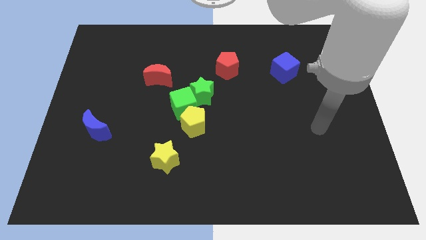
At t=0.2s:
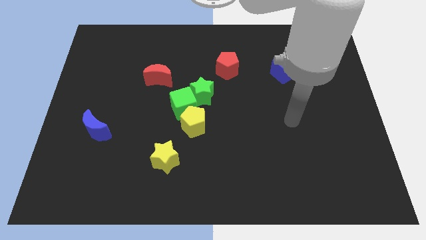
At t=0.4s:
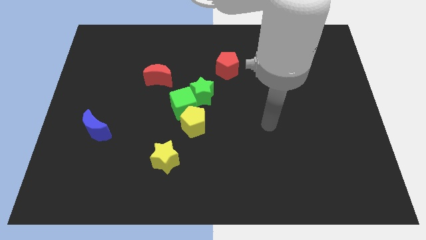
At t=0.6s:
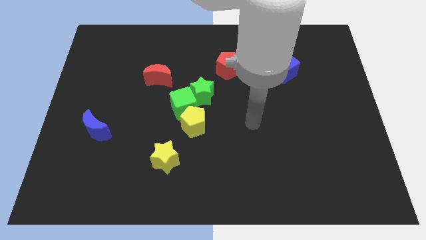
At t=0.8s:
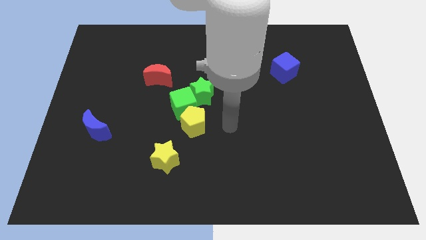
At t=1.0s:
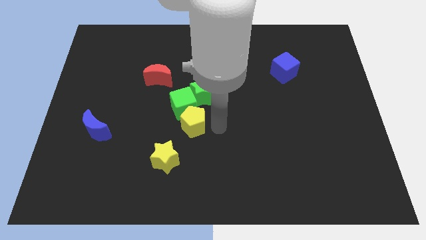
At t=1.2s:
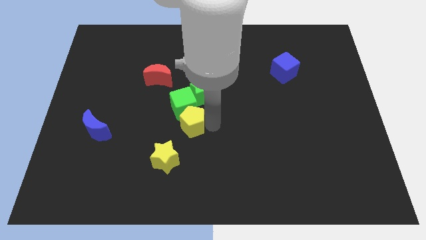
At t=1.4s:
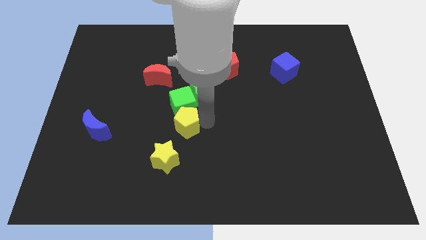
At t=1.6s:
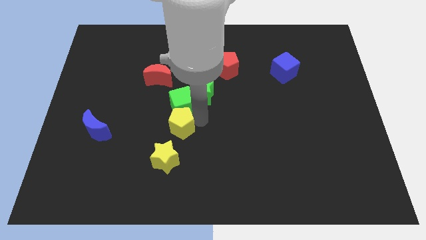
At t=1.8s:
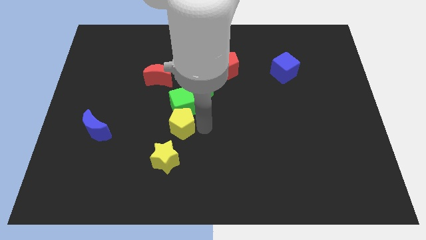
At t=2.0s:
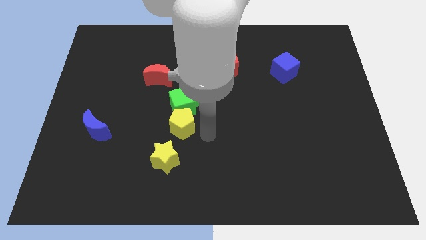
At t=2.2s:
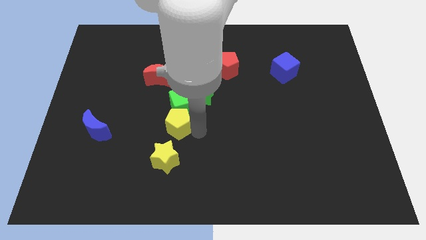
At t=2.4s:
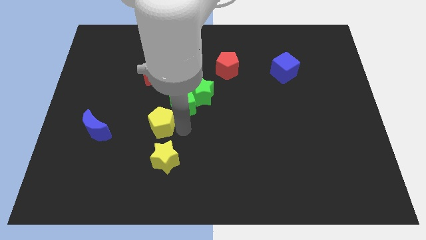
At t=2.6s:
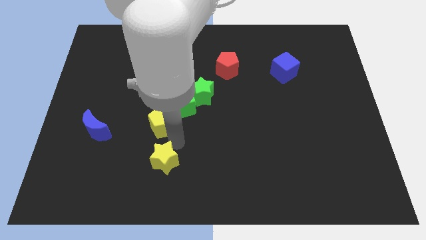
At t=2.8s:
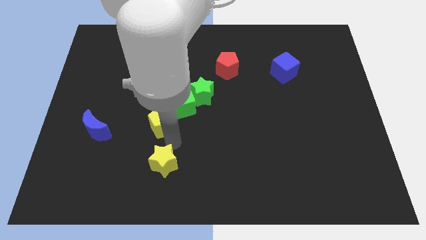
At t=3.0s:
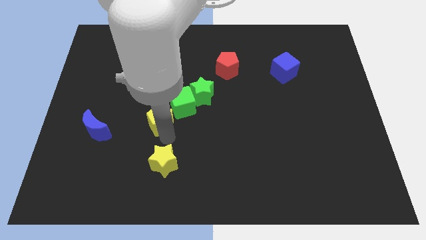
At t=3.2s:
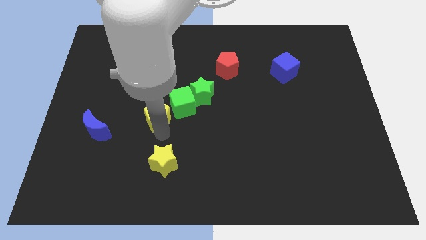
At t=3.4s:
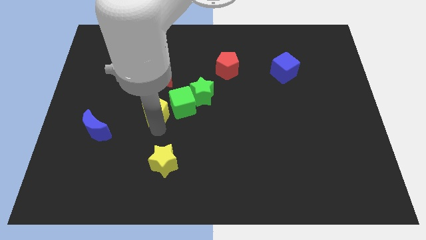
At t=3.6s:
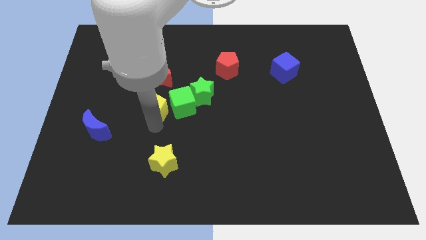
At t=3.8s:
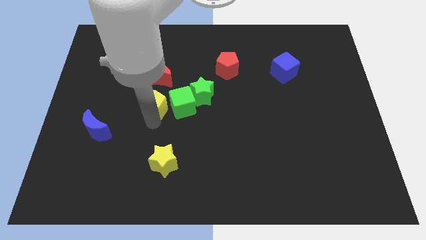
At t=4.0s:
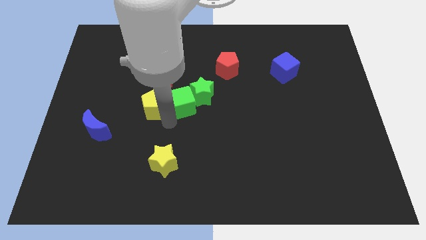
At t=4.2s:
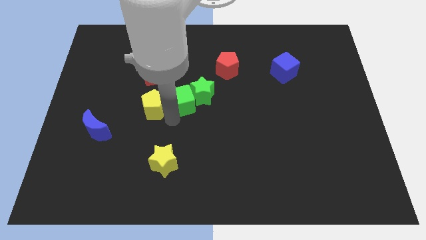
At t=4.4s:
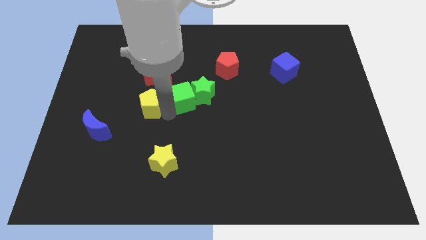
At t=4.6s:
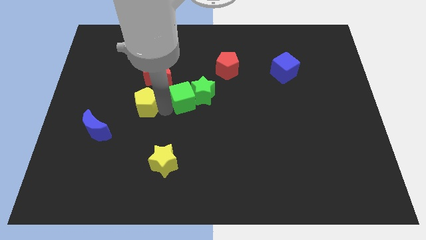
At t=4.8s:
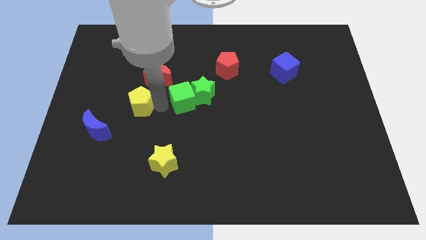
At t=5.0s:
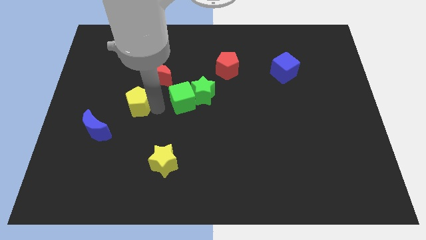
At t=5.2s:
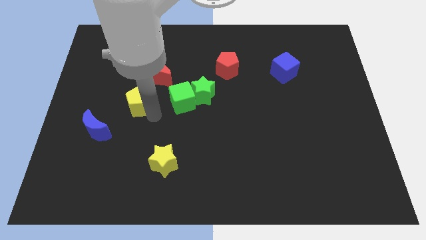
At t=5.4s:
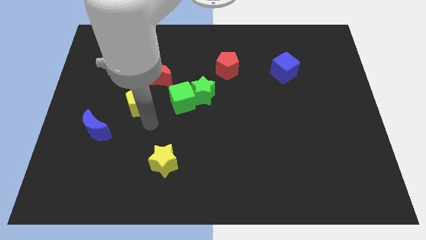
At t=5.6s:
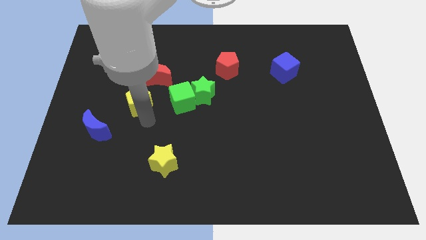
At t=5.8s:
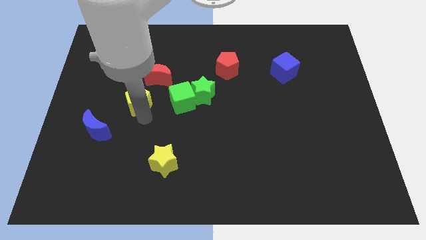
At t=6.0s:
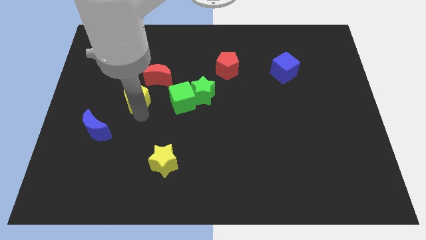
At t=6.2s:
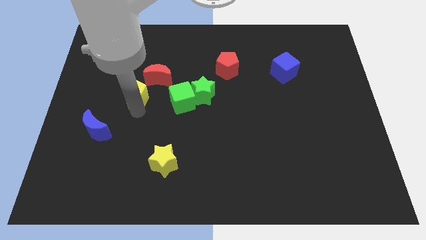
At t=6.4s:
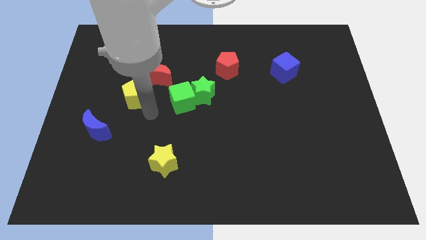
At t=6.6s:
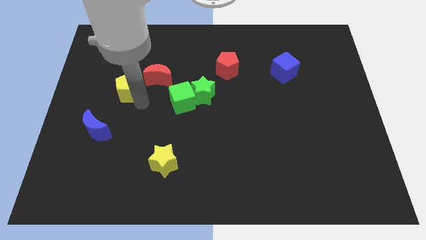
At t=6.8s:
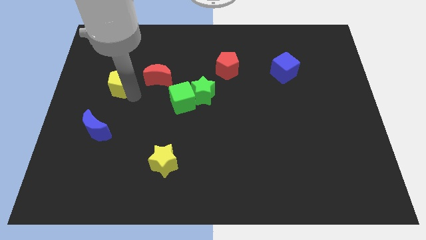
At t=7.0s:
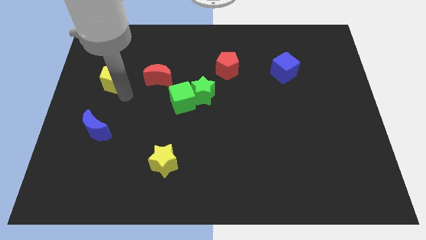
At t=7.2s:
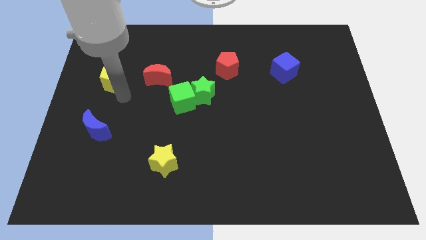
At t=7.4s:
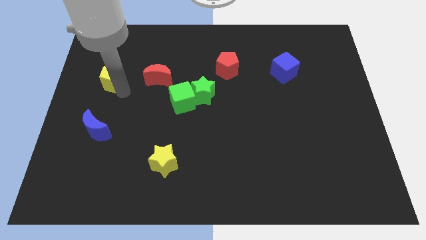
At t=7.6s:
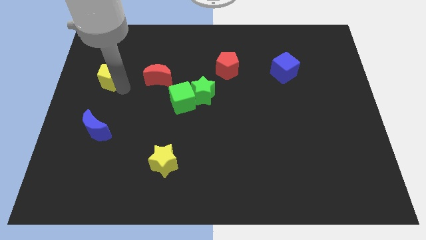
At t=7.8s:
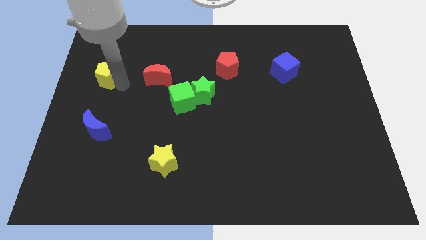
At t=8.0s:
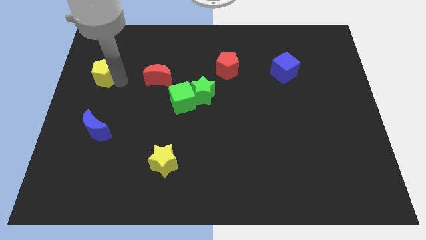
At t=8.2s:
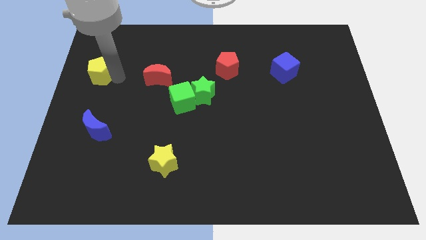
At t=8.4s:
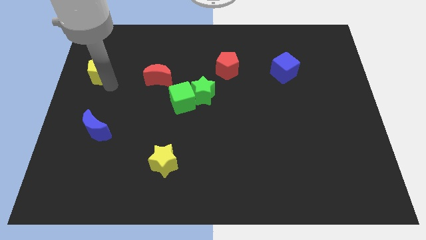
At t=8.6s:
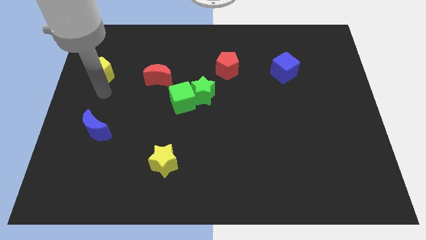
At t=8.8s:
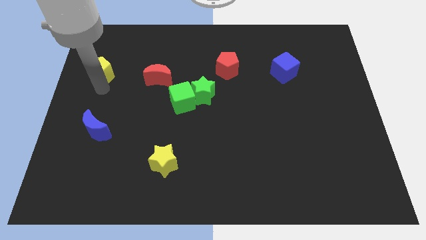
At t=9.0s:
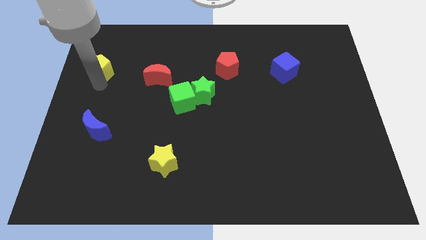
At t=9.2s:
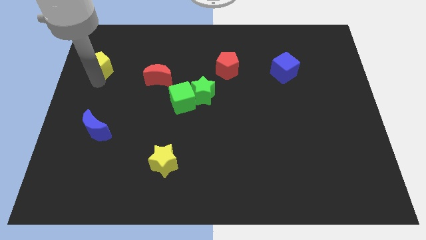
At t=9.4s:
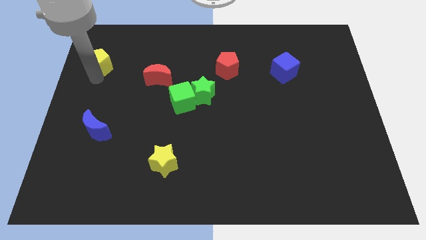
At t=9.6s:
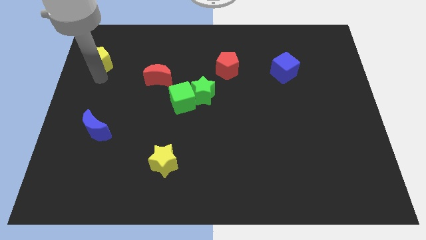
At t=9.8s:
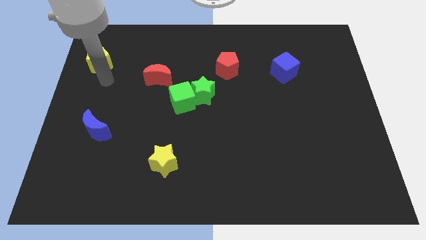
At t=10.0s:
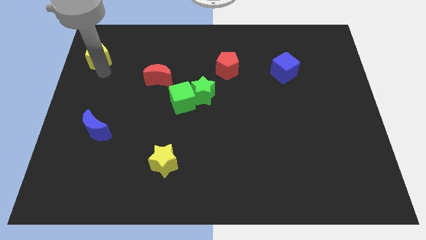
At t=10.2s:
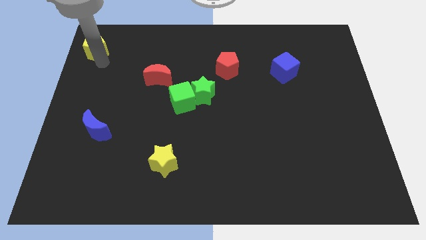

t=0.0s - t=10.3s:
put the yellow pentagon to the top left

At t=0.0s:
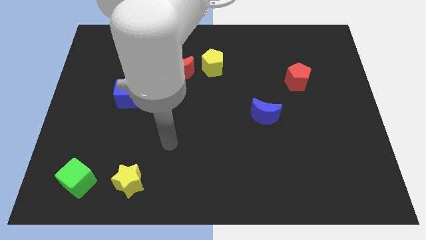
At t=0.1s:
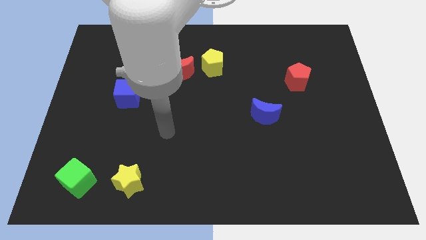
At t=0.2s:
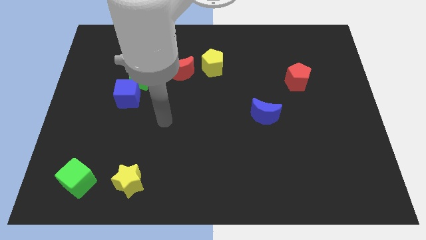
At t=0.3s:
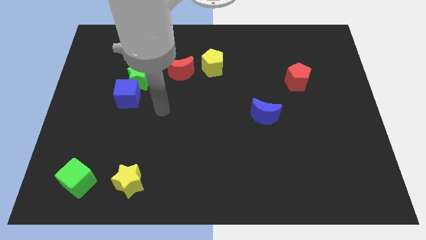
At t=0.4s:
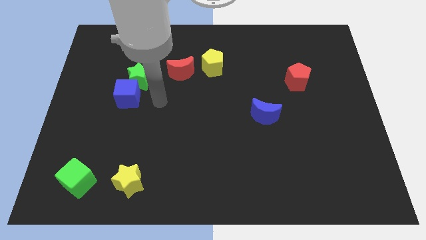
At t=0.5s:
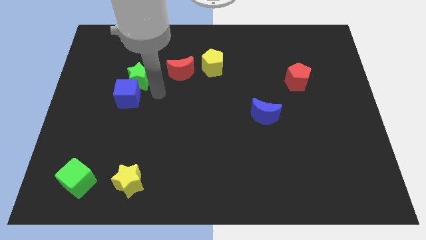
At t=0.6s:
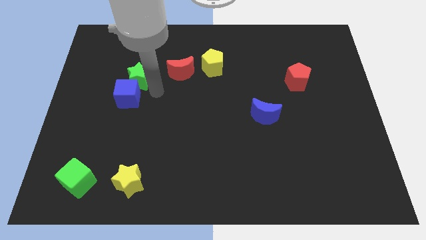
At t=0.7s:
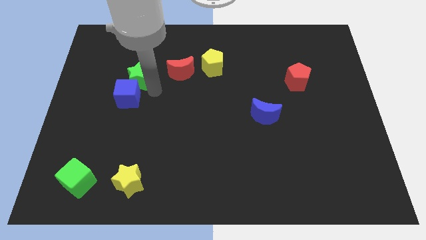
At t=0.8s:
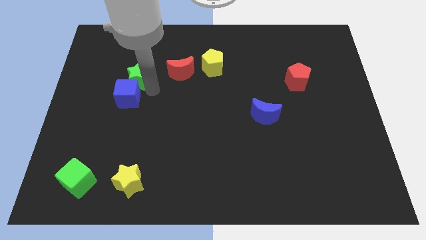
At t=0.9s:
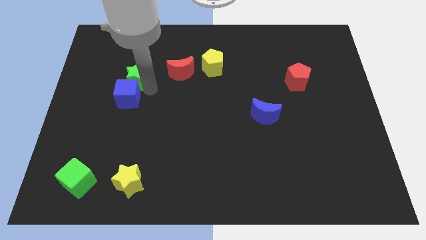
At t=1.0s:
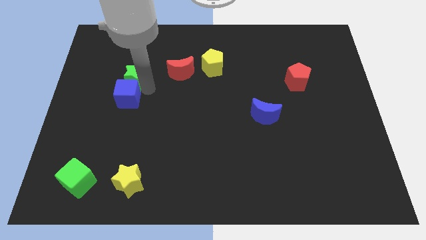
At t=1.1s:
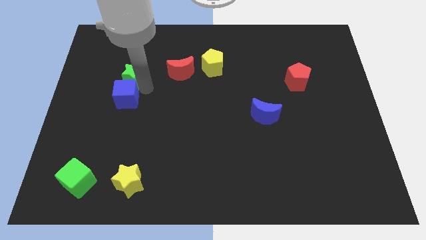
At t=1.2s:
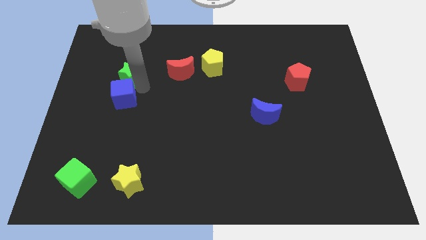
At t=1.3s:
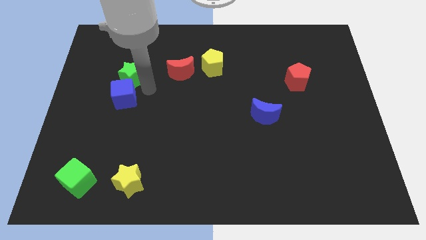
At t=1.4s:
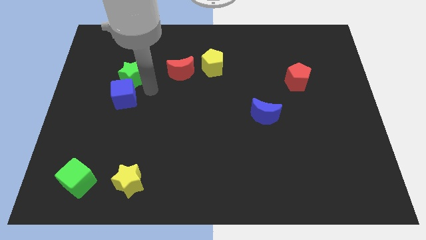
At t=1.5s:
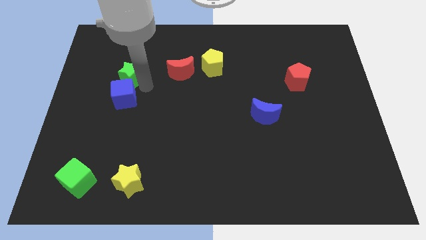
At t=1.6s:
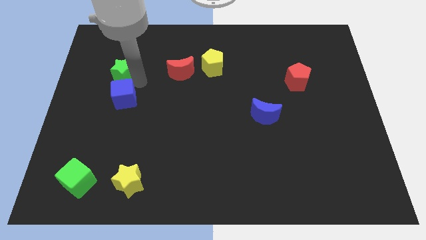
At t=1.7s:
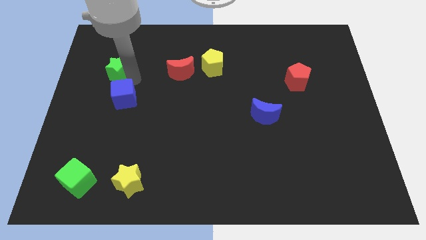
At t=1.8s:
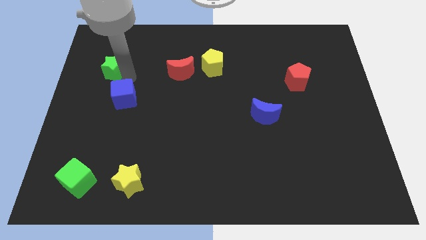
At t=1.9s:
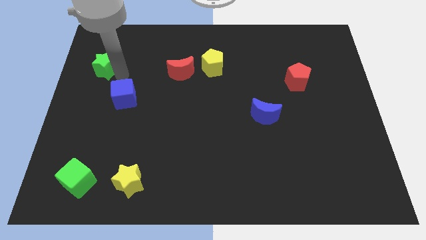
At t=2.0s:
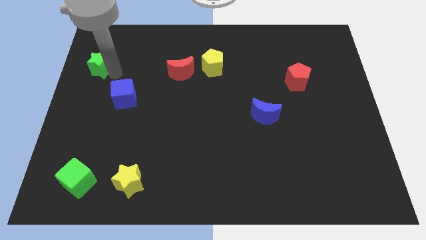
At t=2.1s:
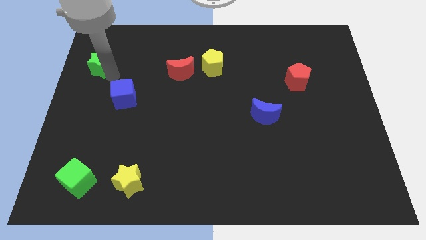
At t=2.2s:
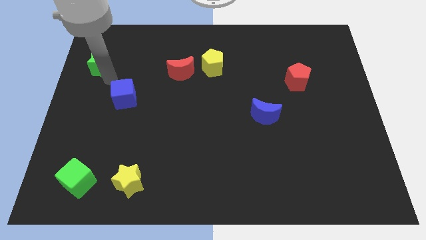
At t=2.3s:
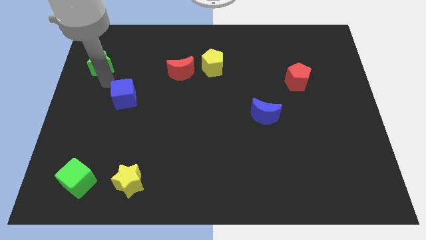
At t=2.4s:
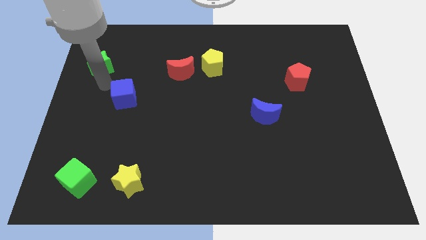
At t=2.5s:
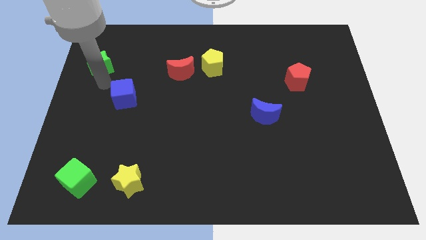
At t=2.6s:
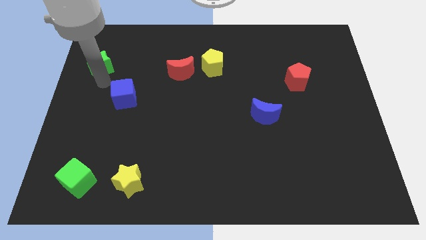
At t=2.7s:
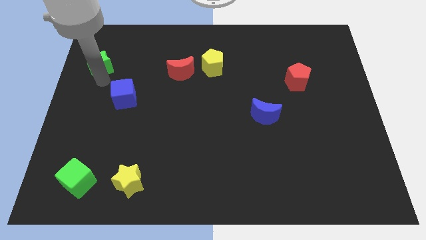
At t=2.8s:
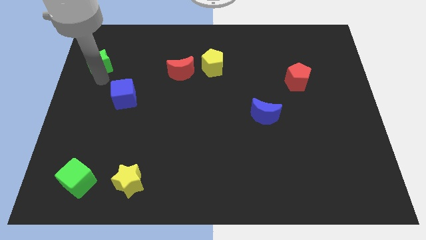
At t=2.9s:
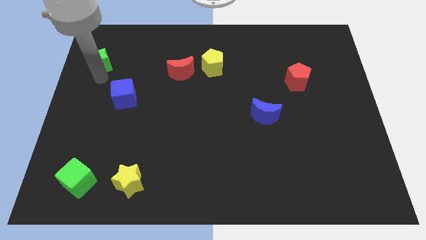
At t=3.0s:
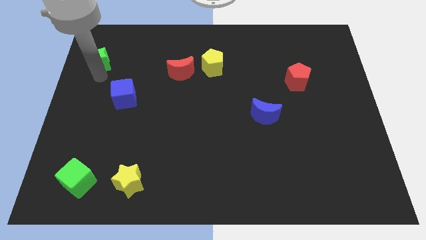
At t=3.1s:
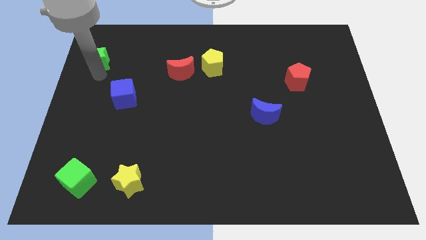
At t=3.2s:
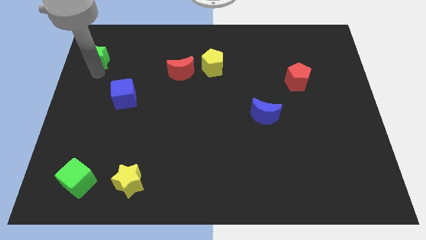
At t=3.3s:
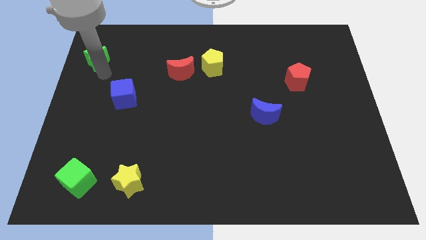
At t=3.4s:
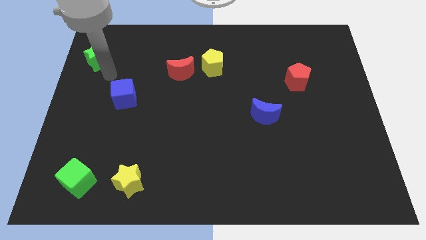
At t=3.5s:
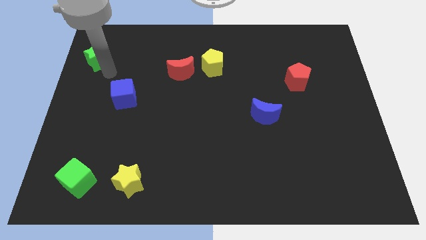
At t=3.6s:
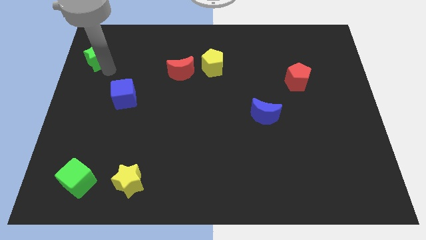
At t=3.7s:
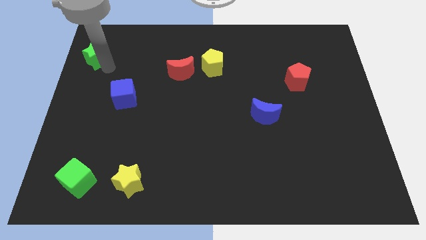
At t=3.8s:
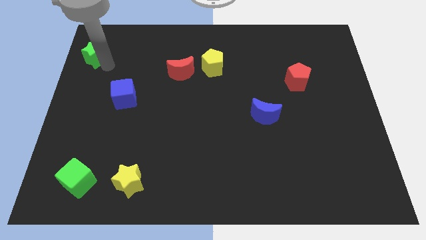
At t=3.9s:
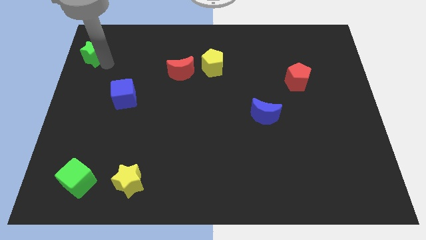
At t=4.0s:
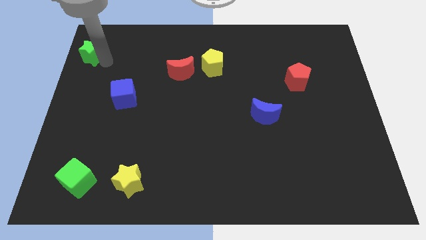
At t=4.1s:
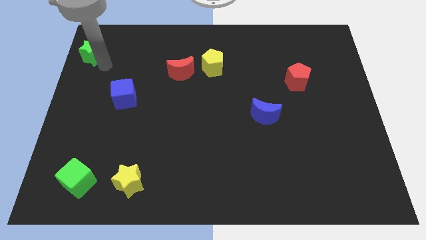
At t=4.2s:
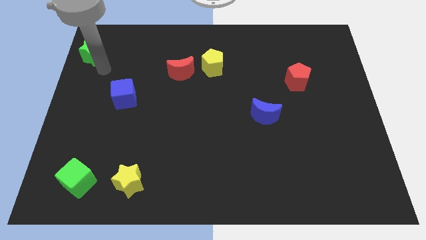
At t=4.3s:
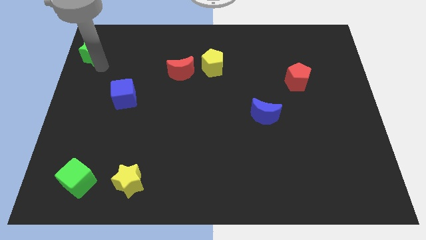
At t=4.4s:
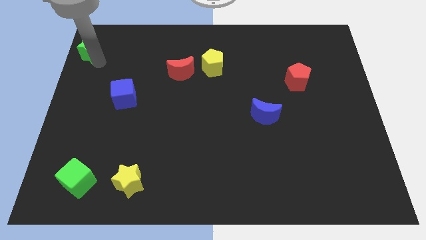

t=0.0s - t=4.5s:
slide the green star to the top left of the board
